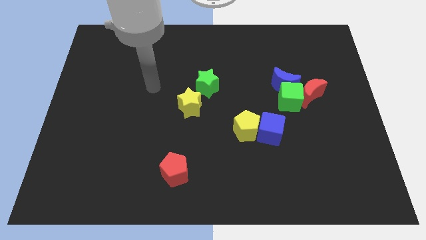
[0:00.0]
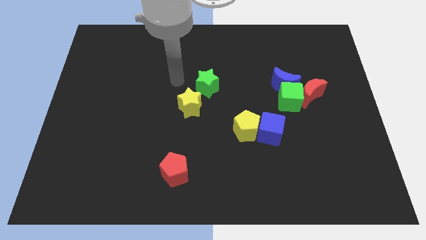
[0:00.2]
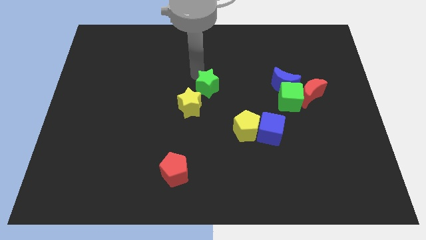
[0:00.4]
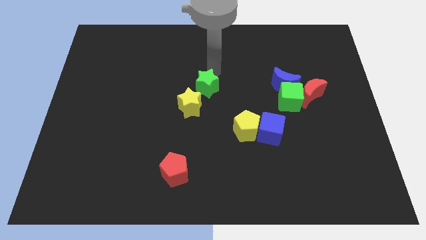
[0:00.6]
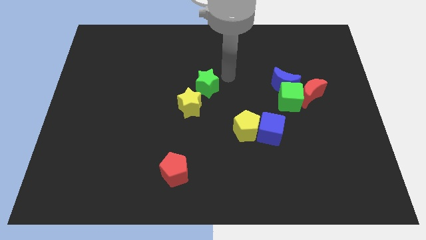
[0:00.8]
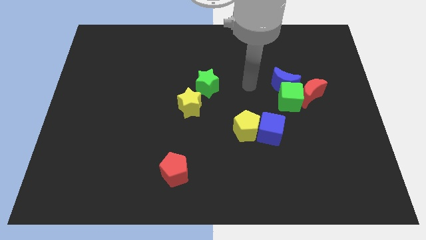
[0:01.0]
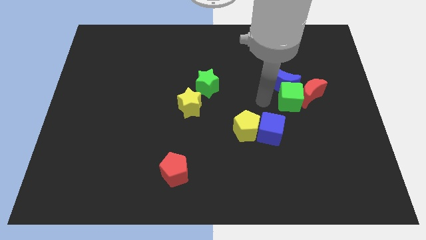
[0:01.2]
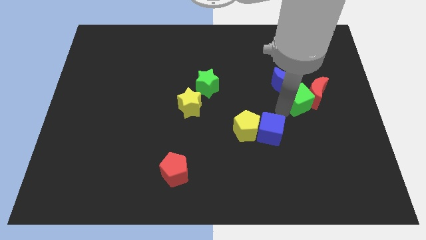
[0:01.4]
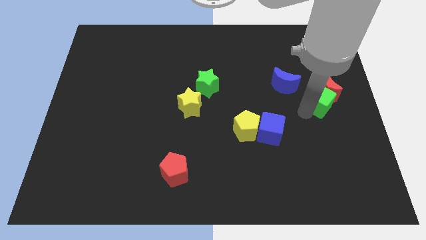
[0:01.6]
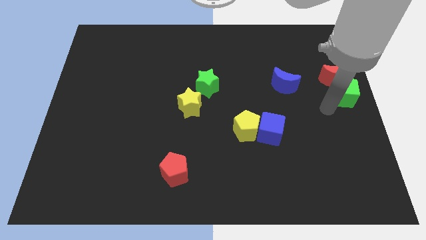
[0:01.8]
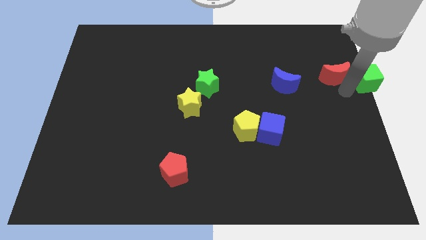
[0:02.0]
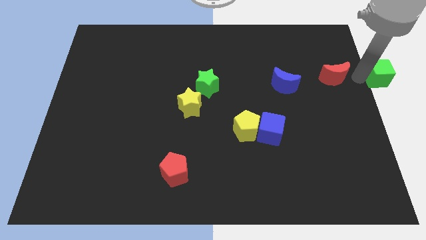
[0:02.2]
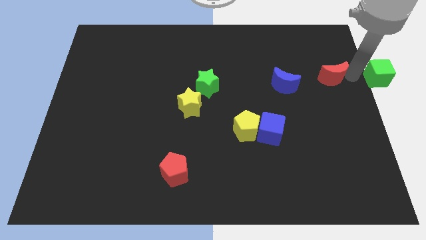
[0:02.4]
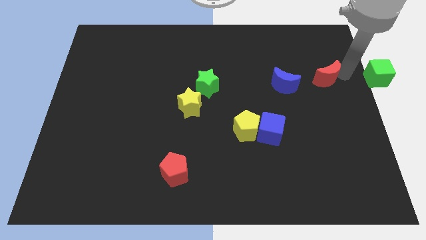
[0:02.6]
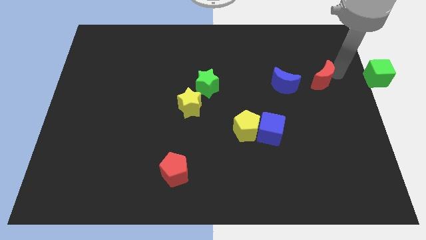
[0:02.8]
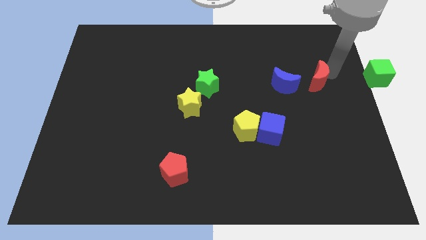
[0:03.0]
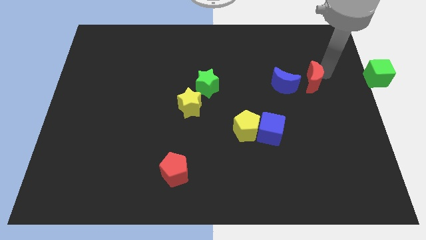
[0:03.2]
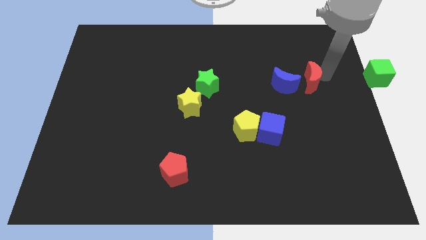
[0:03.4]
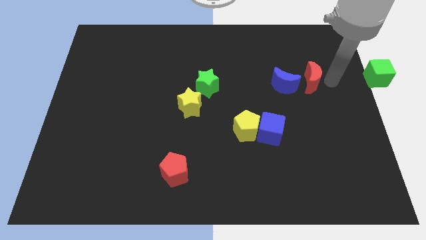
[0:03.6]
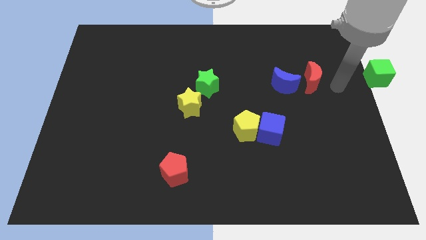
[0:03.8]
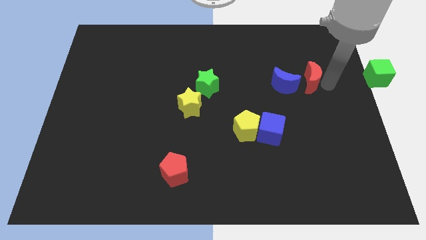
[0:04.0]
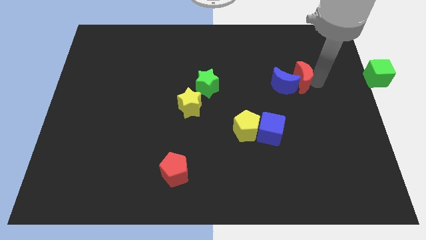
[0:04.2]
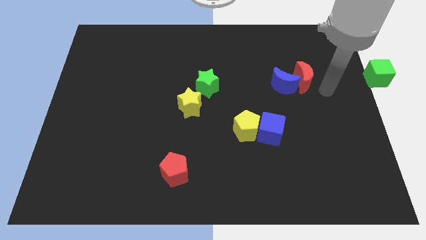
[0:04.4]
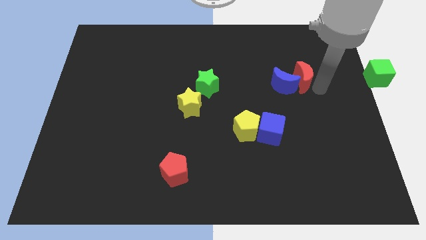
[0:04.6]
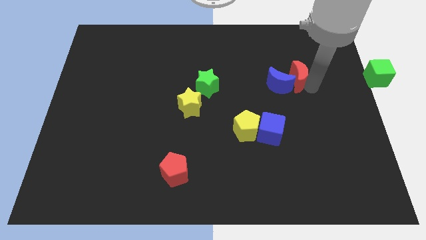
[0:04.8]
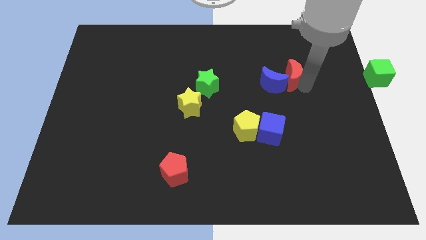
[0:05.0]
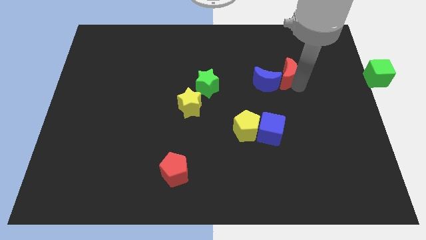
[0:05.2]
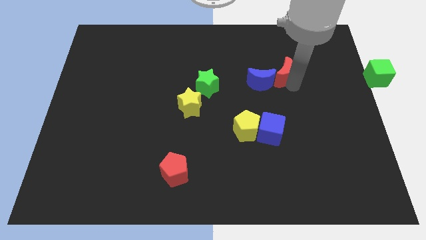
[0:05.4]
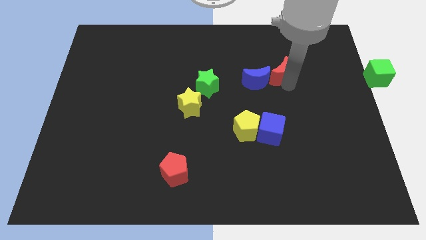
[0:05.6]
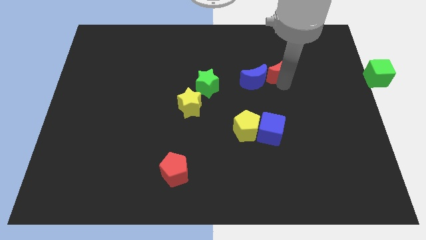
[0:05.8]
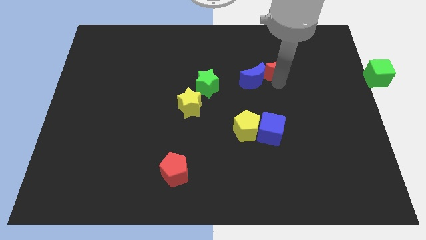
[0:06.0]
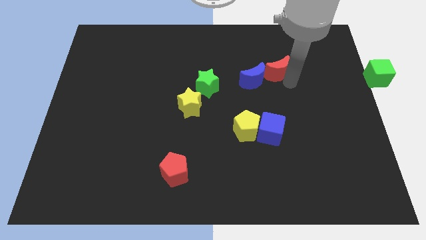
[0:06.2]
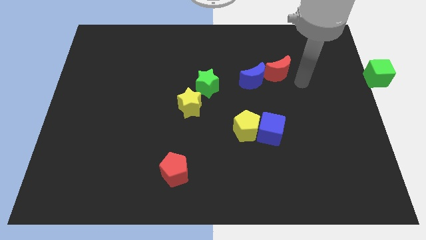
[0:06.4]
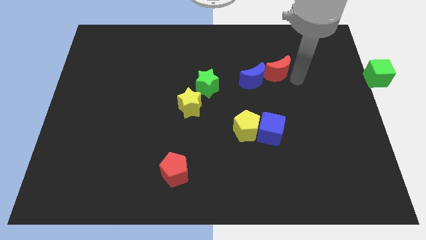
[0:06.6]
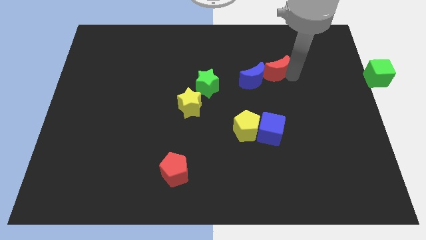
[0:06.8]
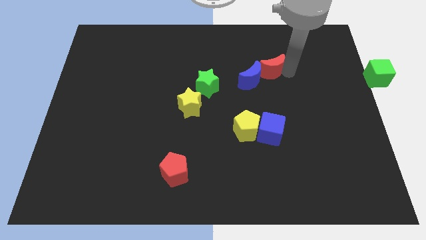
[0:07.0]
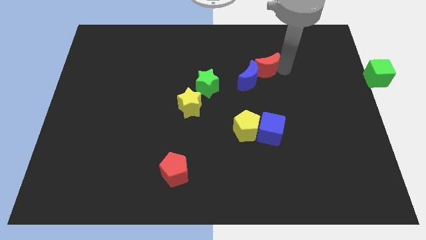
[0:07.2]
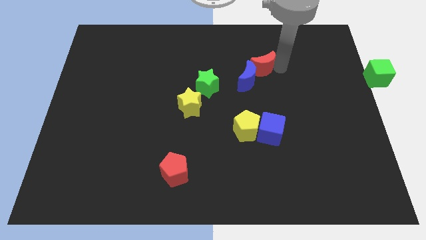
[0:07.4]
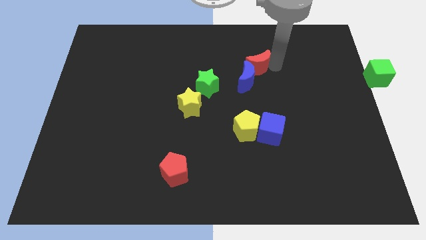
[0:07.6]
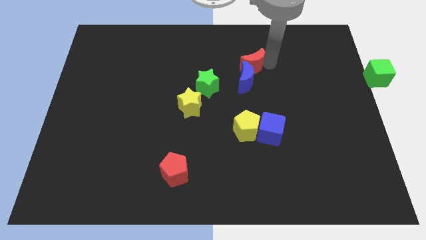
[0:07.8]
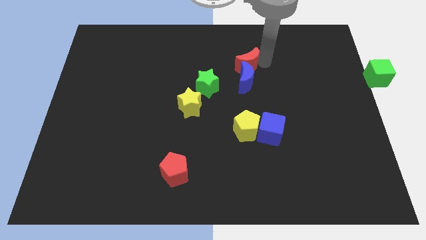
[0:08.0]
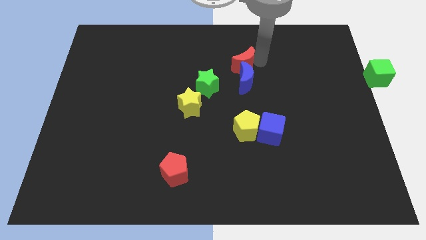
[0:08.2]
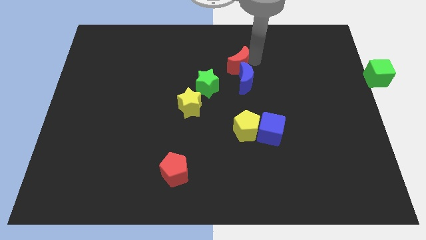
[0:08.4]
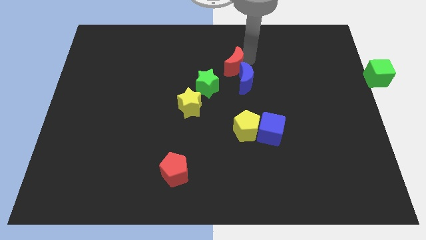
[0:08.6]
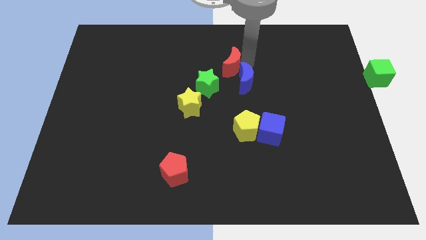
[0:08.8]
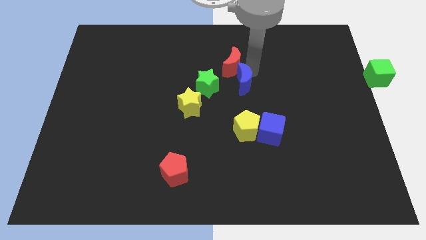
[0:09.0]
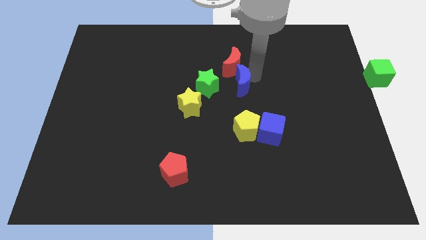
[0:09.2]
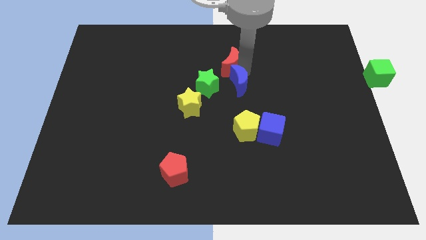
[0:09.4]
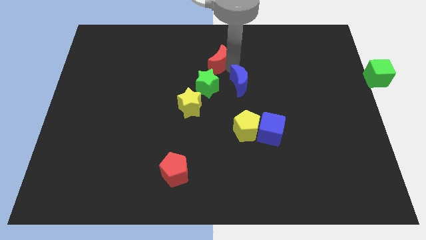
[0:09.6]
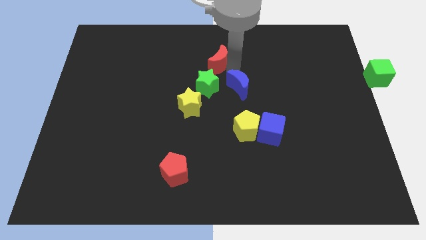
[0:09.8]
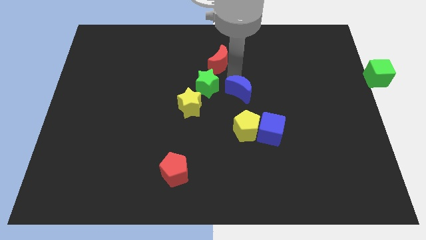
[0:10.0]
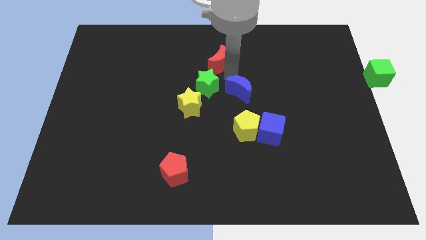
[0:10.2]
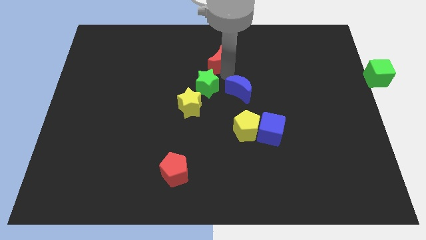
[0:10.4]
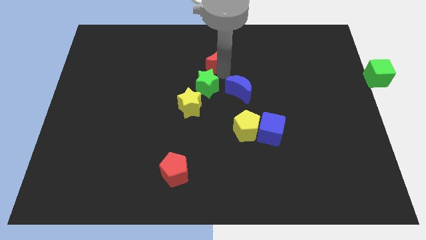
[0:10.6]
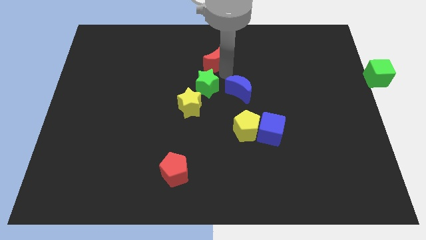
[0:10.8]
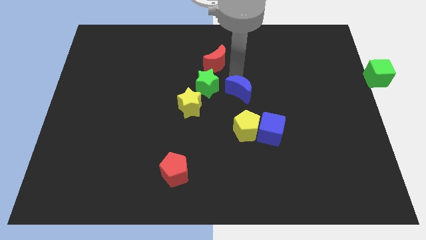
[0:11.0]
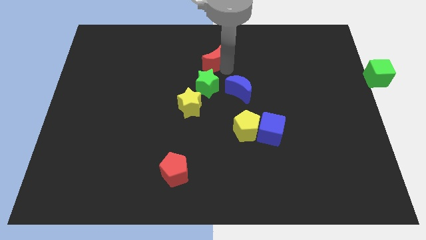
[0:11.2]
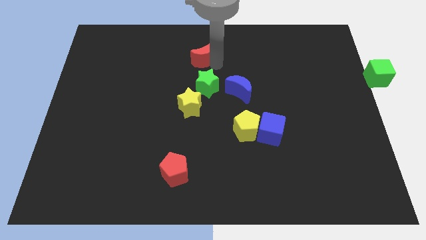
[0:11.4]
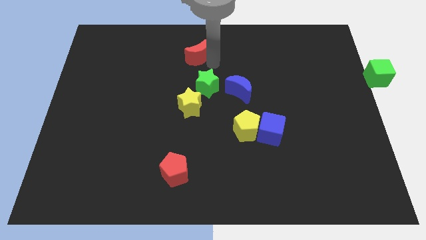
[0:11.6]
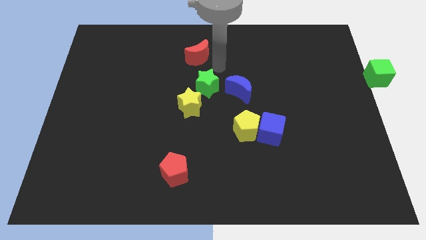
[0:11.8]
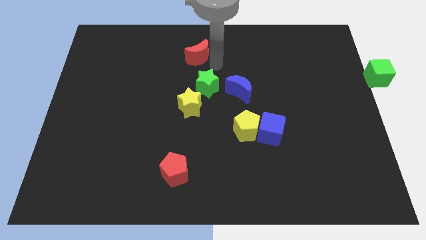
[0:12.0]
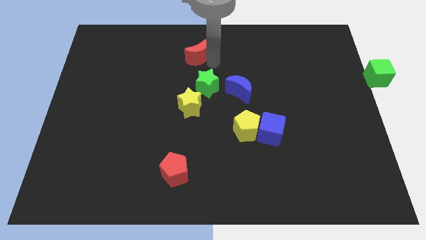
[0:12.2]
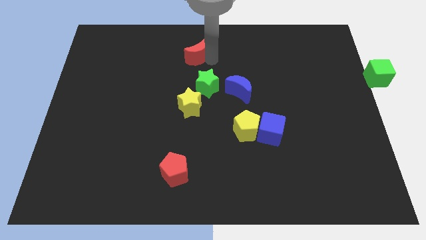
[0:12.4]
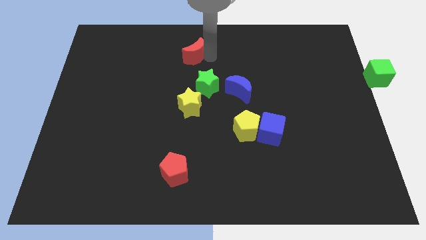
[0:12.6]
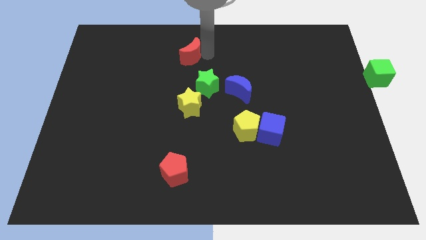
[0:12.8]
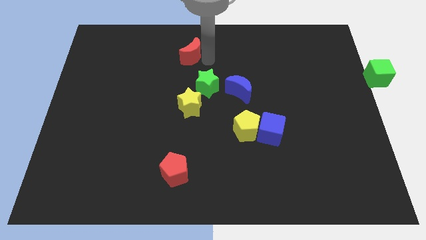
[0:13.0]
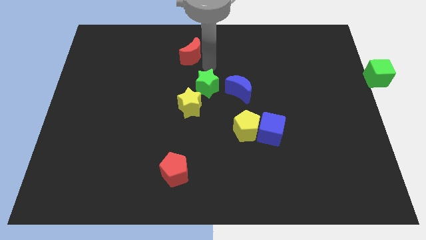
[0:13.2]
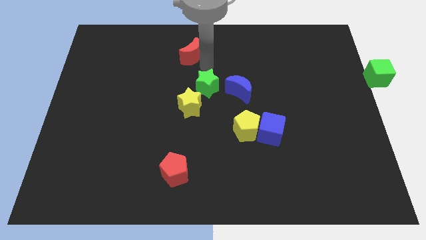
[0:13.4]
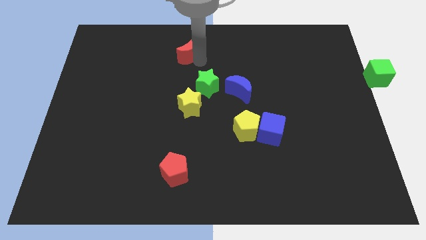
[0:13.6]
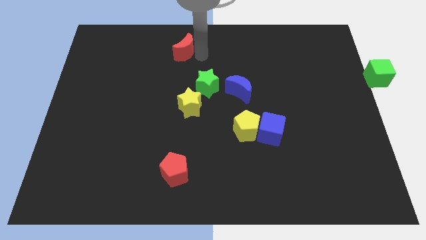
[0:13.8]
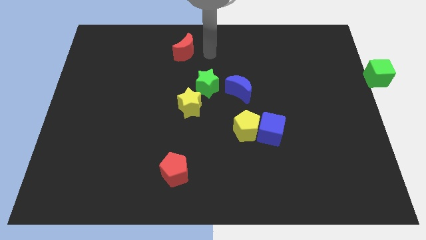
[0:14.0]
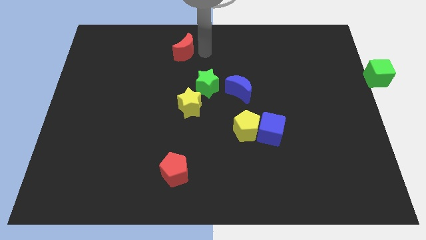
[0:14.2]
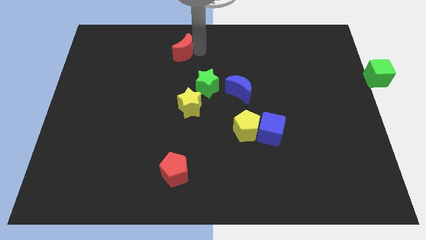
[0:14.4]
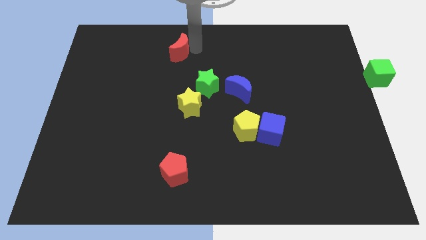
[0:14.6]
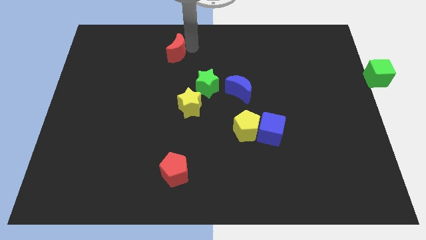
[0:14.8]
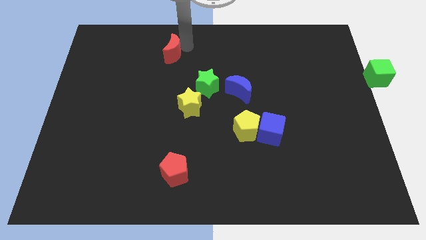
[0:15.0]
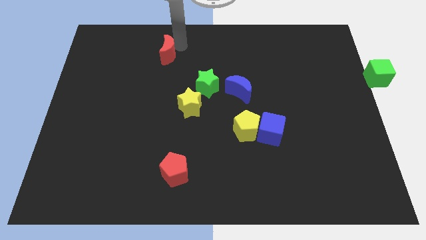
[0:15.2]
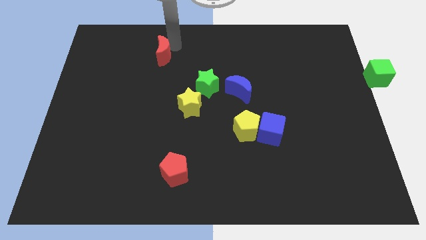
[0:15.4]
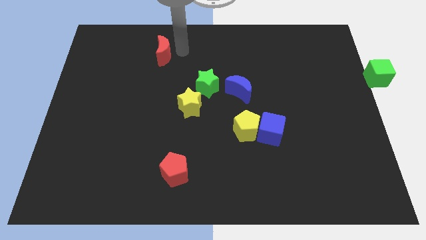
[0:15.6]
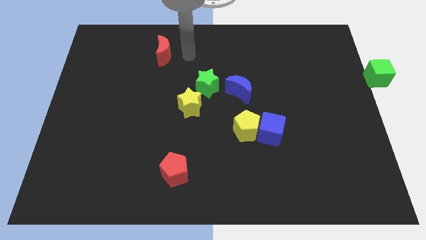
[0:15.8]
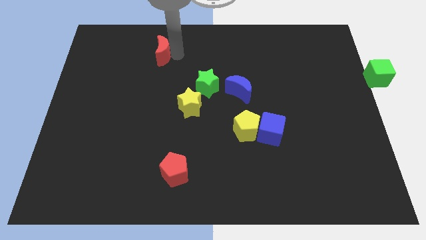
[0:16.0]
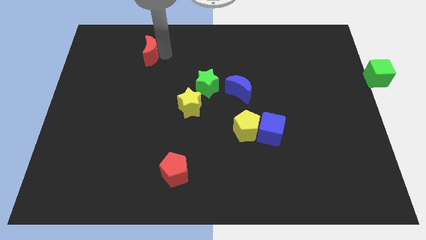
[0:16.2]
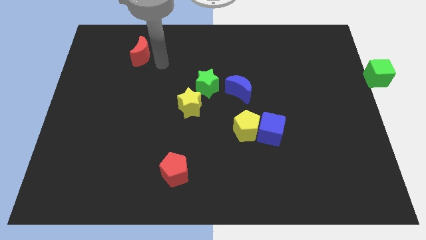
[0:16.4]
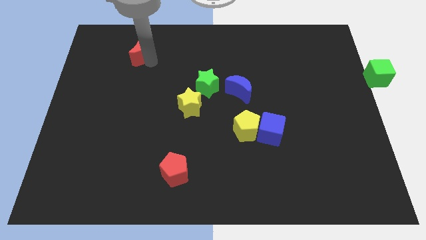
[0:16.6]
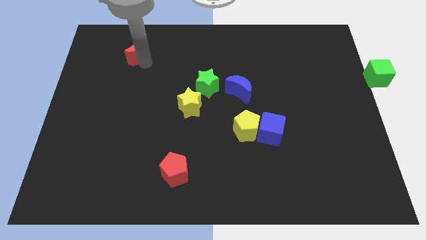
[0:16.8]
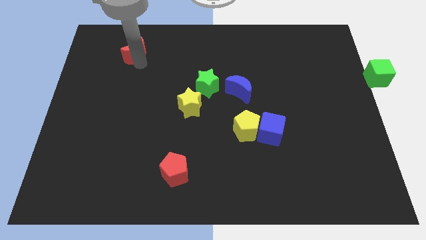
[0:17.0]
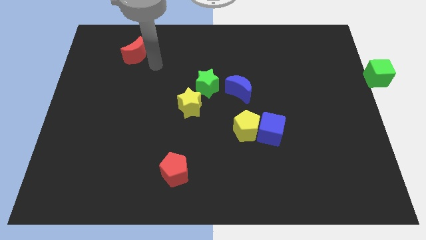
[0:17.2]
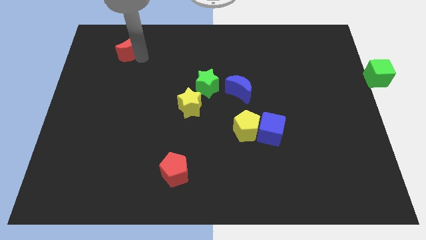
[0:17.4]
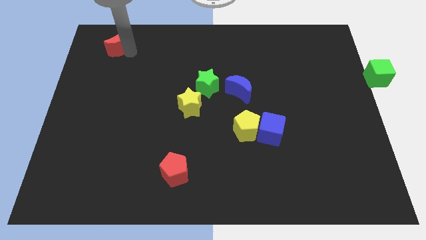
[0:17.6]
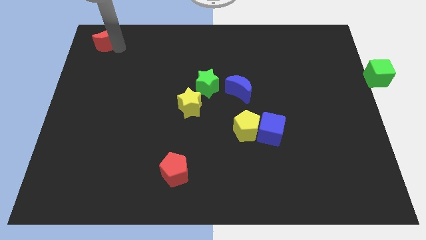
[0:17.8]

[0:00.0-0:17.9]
move the red moon to the top left
